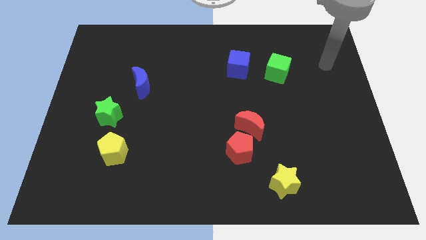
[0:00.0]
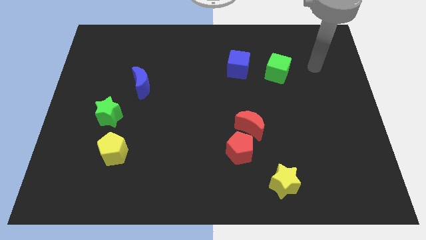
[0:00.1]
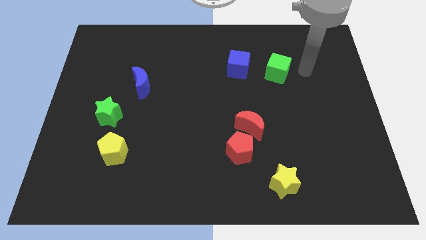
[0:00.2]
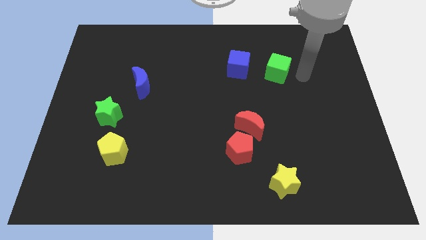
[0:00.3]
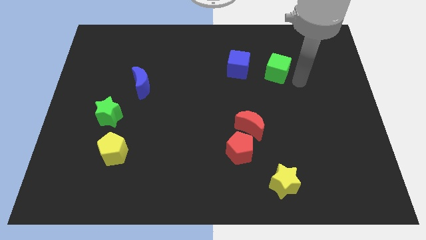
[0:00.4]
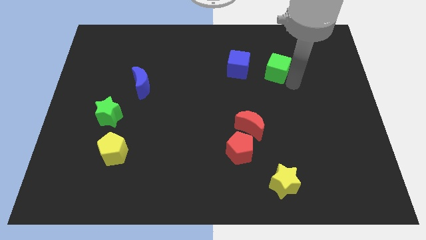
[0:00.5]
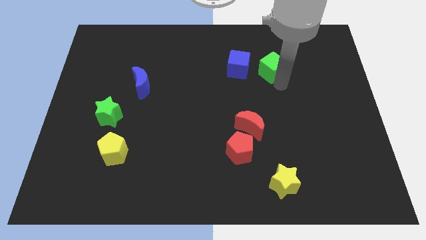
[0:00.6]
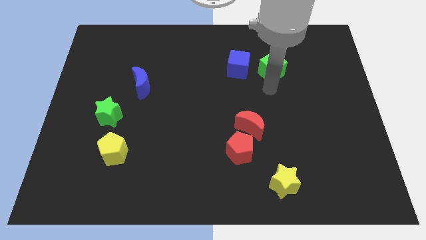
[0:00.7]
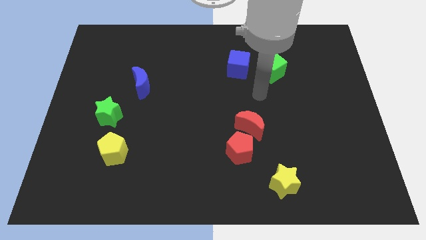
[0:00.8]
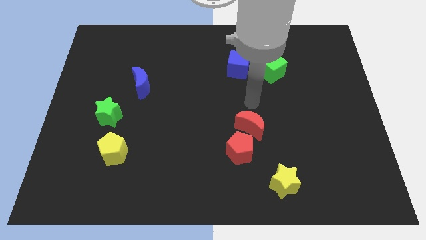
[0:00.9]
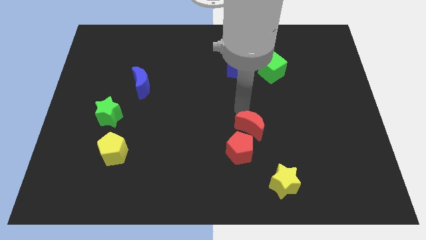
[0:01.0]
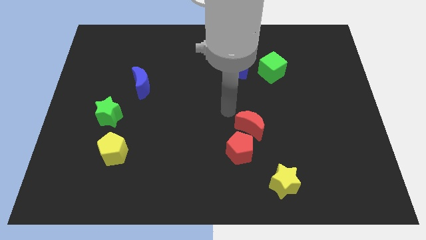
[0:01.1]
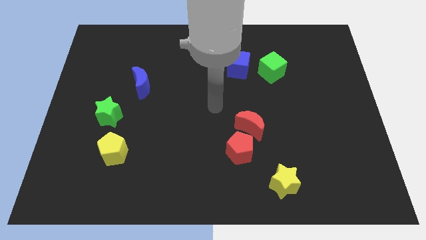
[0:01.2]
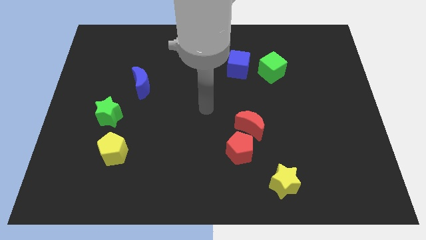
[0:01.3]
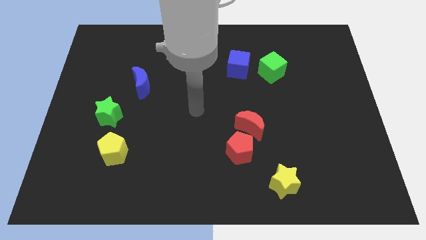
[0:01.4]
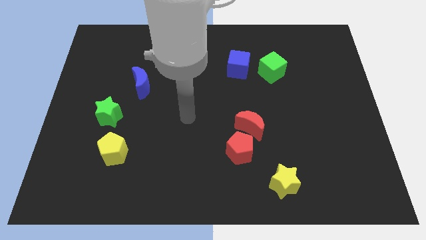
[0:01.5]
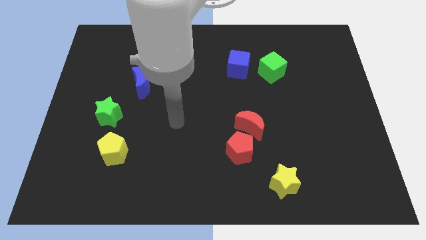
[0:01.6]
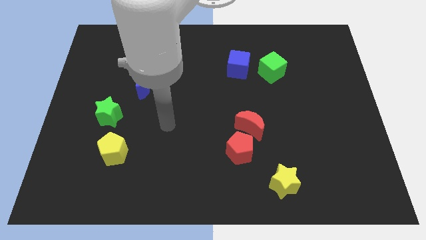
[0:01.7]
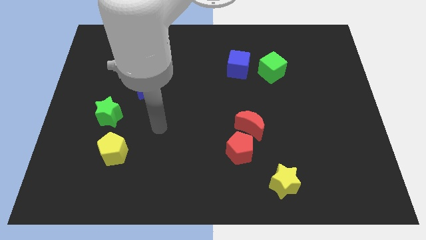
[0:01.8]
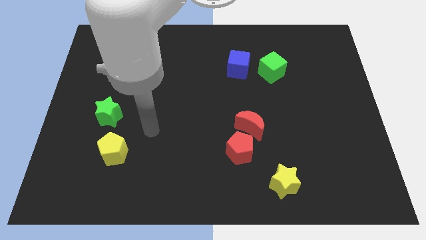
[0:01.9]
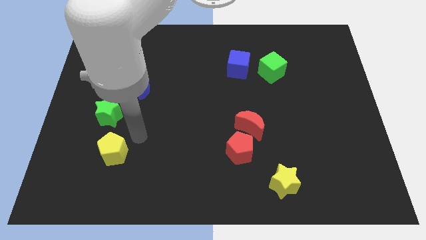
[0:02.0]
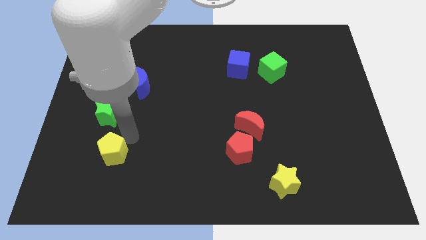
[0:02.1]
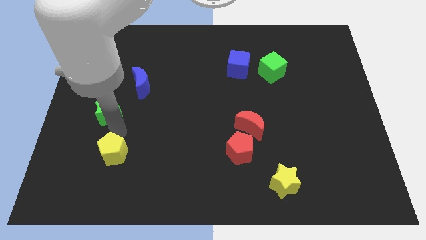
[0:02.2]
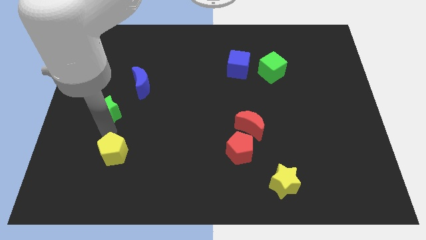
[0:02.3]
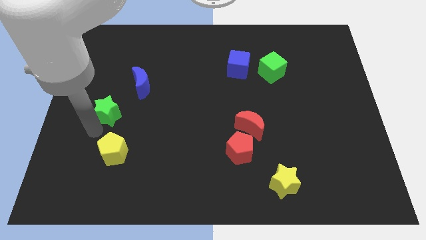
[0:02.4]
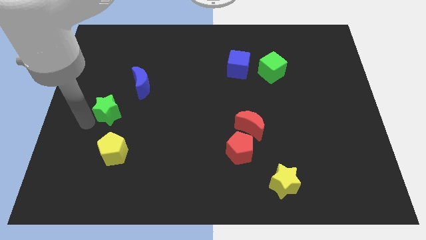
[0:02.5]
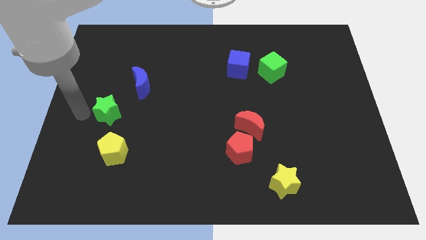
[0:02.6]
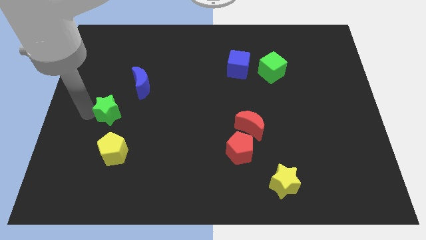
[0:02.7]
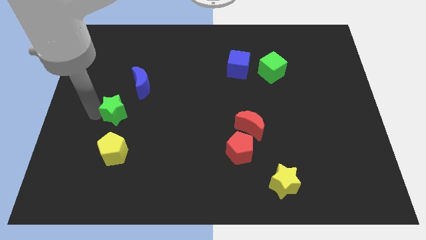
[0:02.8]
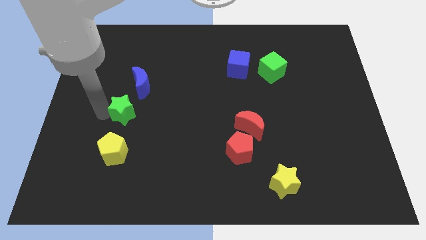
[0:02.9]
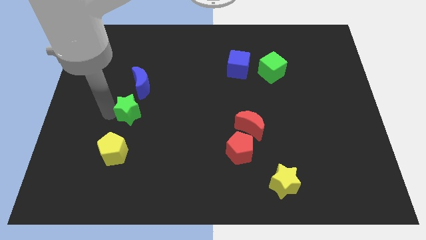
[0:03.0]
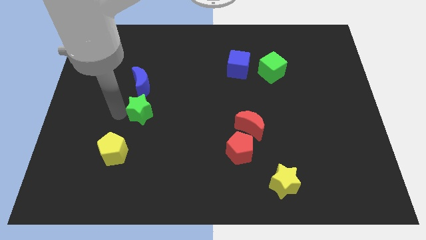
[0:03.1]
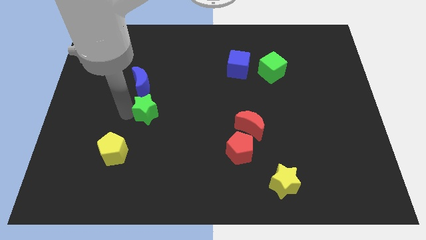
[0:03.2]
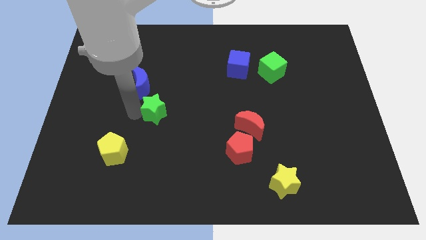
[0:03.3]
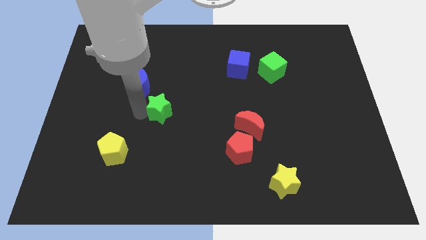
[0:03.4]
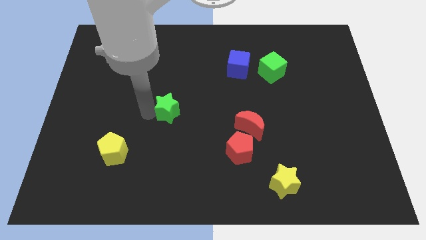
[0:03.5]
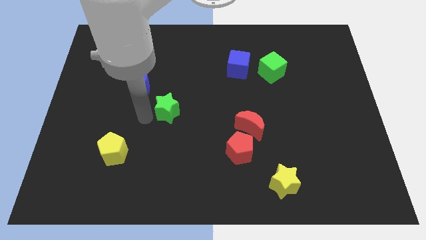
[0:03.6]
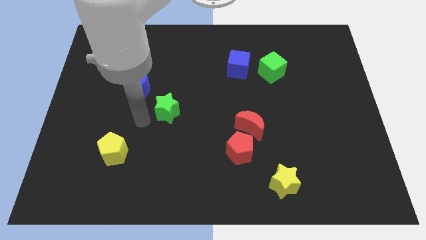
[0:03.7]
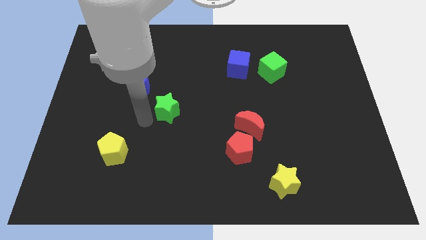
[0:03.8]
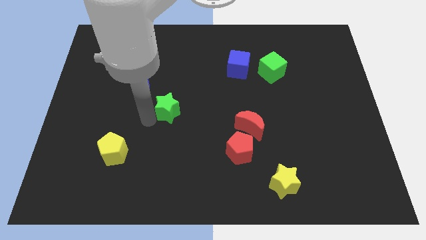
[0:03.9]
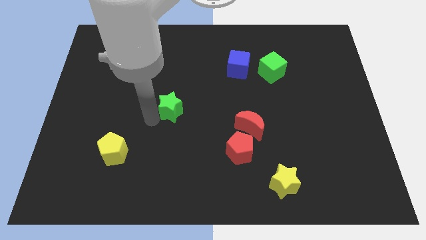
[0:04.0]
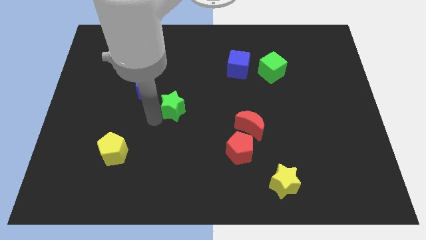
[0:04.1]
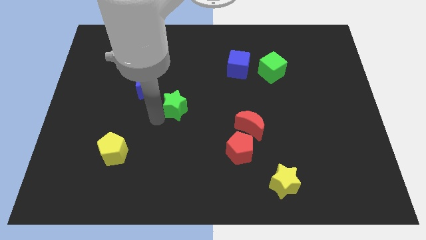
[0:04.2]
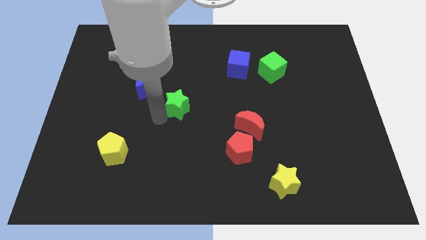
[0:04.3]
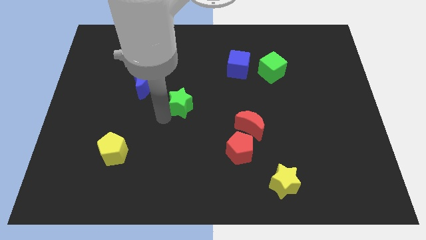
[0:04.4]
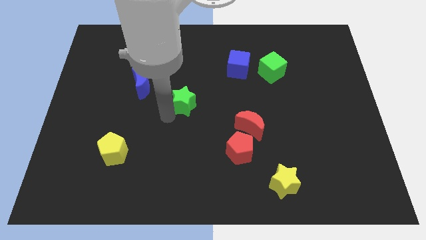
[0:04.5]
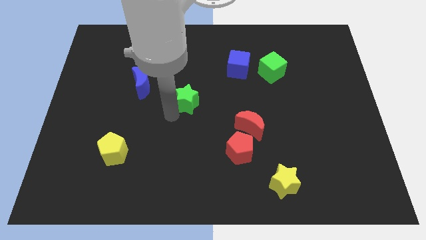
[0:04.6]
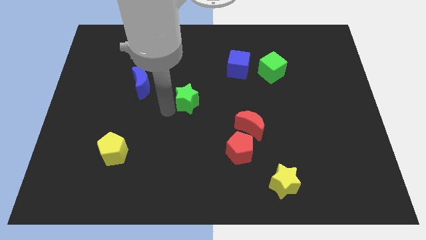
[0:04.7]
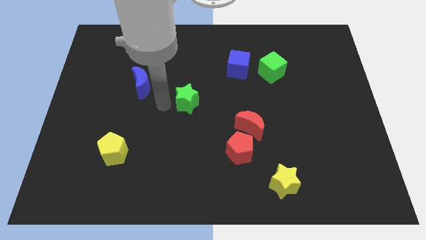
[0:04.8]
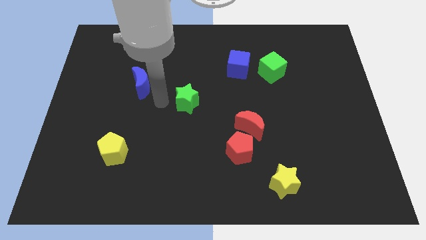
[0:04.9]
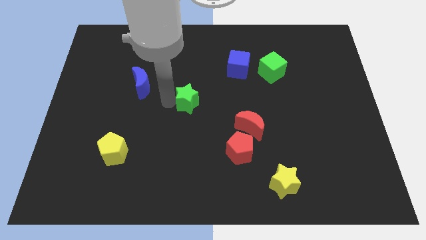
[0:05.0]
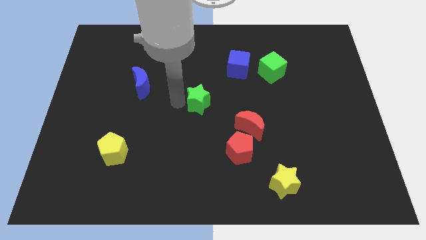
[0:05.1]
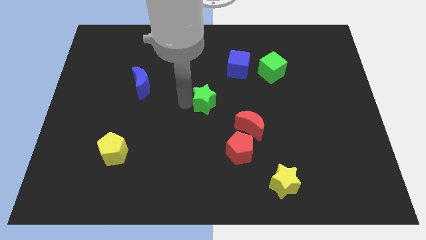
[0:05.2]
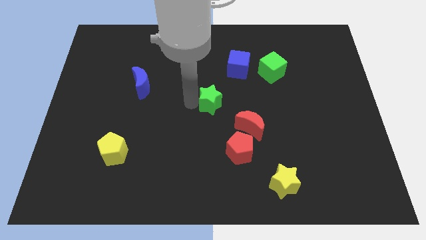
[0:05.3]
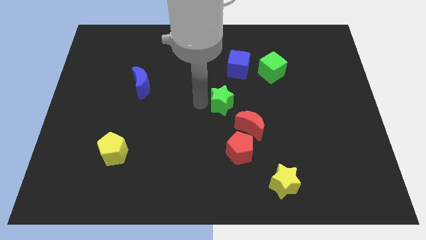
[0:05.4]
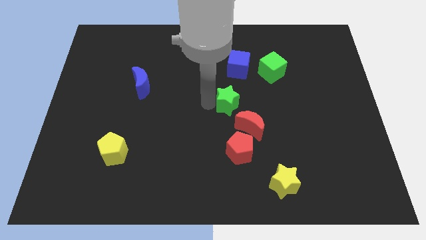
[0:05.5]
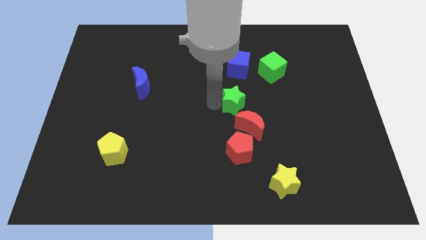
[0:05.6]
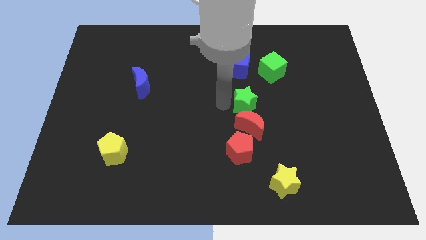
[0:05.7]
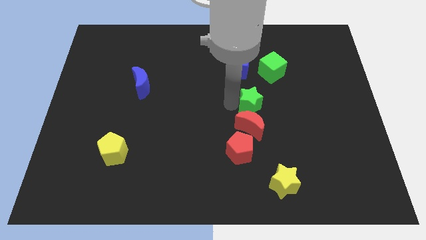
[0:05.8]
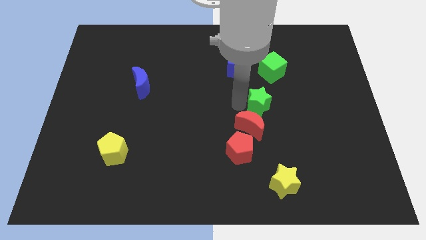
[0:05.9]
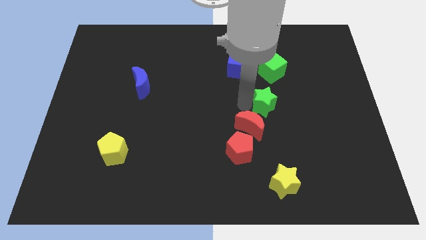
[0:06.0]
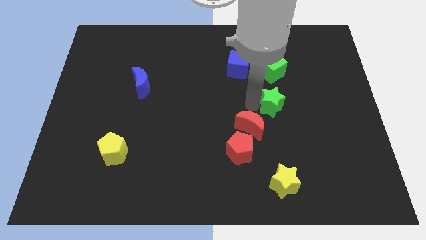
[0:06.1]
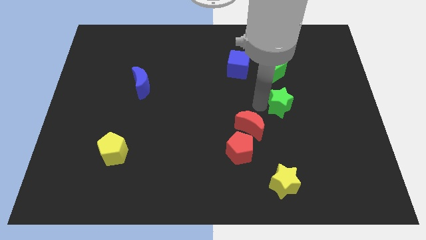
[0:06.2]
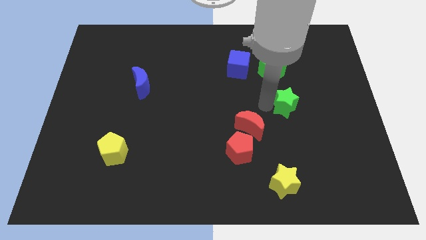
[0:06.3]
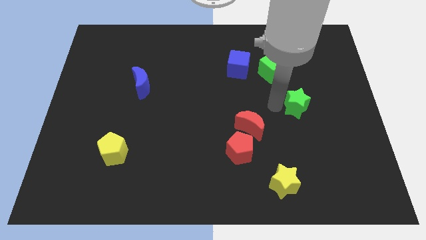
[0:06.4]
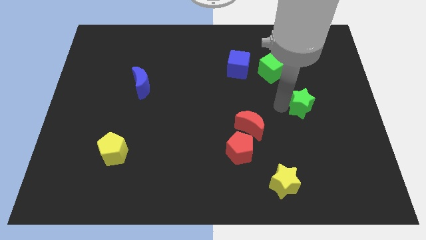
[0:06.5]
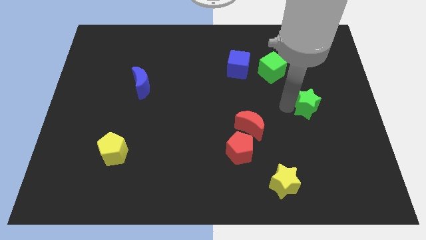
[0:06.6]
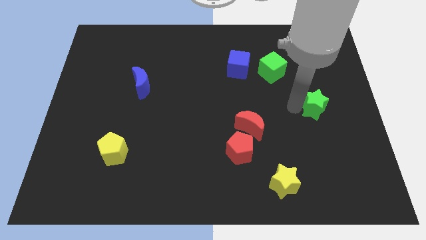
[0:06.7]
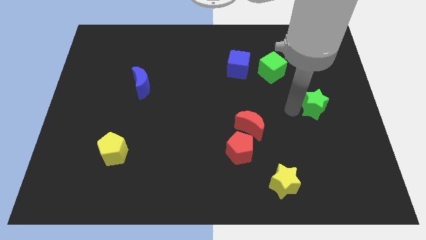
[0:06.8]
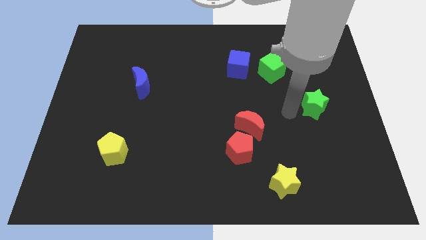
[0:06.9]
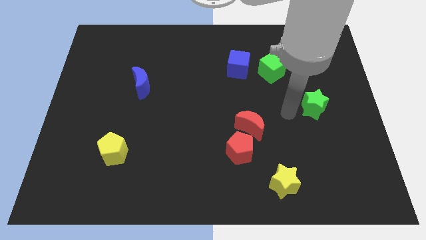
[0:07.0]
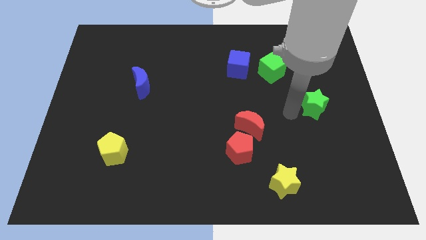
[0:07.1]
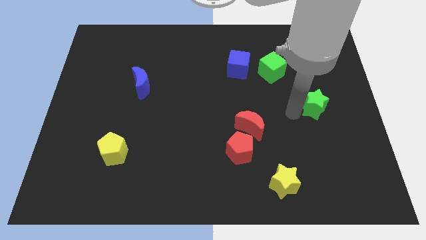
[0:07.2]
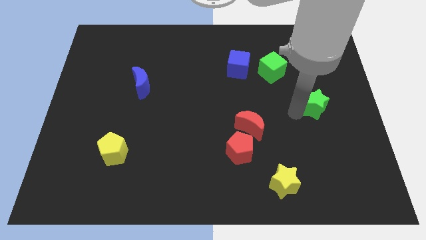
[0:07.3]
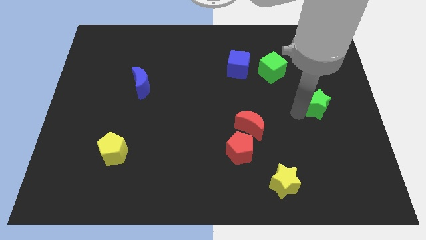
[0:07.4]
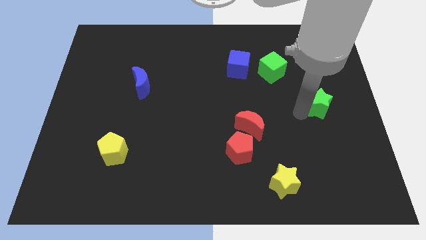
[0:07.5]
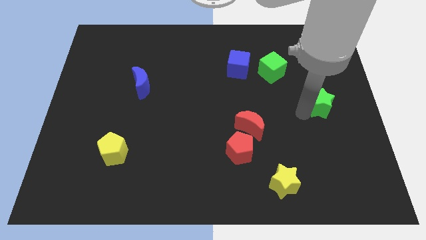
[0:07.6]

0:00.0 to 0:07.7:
move the green star to the right side of the board
